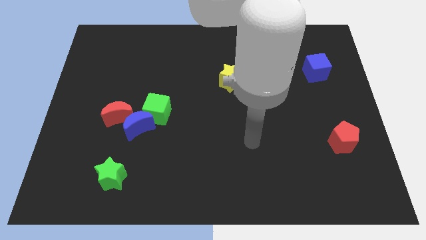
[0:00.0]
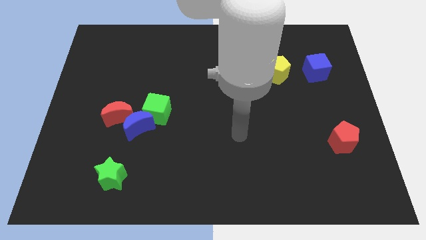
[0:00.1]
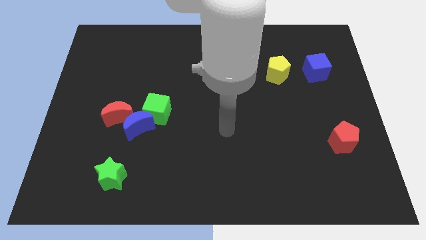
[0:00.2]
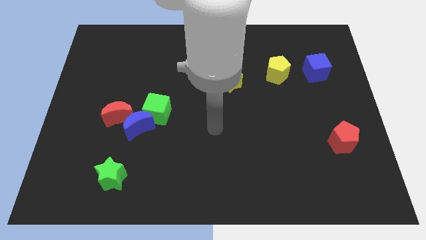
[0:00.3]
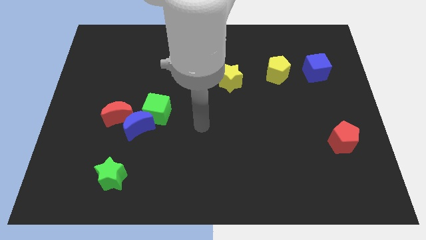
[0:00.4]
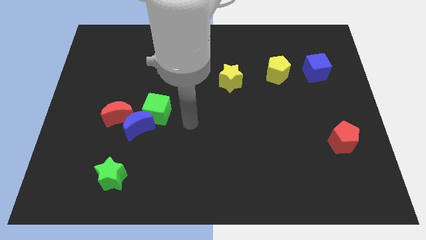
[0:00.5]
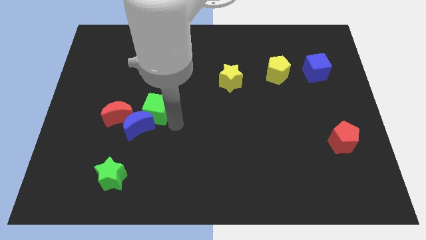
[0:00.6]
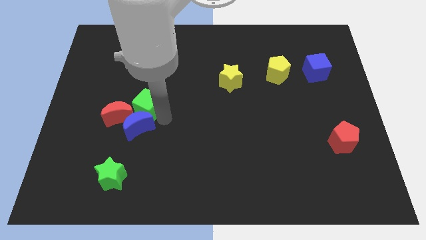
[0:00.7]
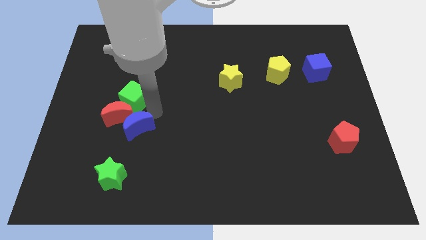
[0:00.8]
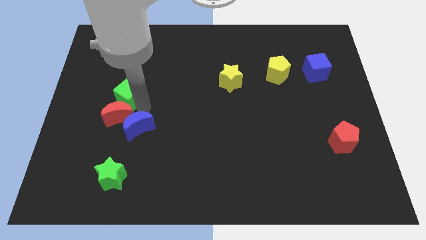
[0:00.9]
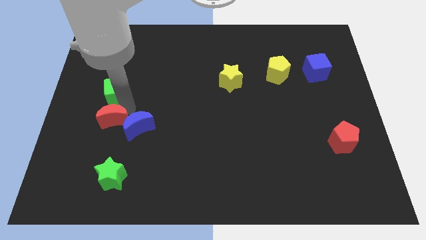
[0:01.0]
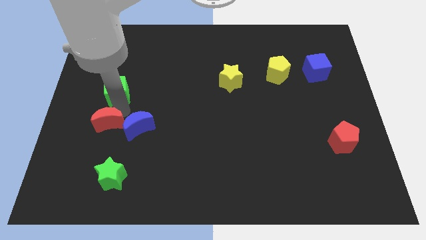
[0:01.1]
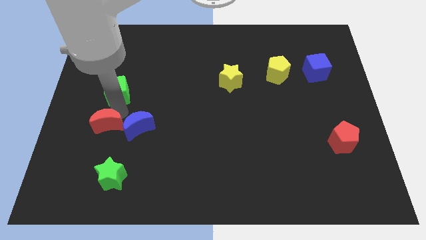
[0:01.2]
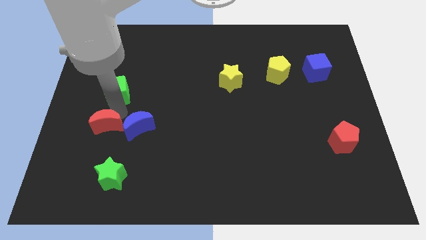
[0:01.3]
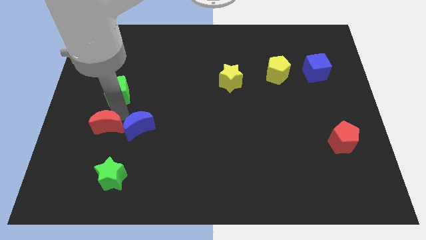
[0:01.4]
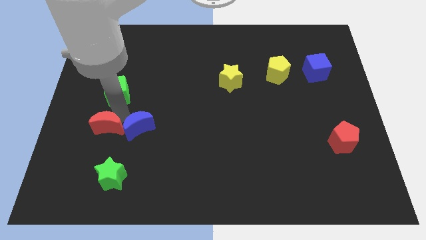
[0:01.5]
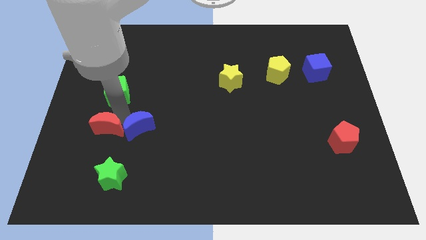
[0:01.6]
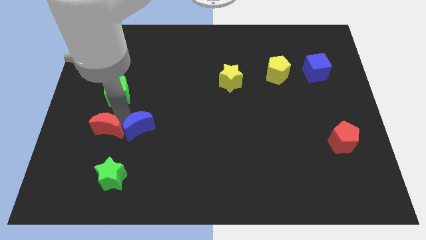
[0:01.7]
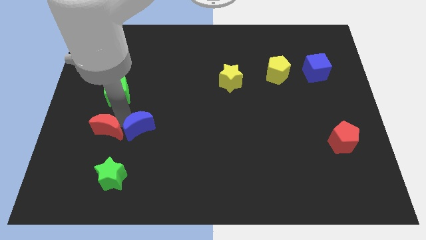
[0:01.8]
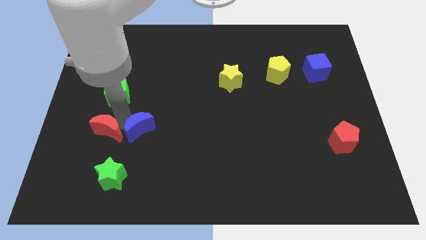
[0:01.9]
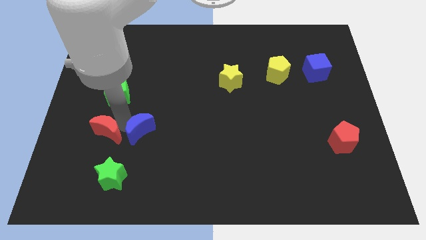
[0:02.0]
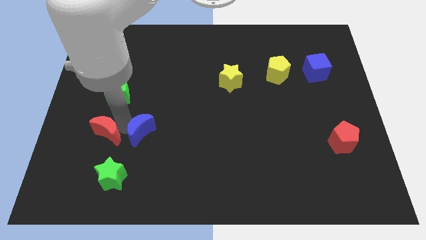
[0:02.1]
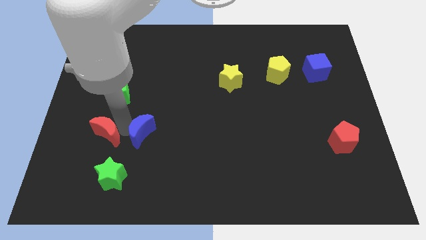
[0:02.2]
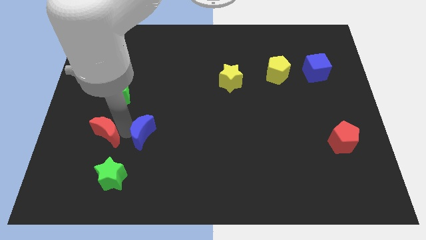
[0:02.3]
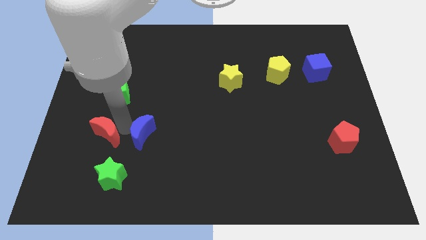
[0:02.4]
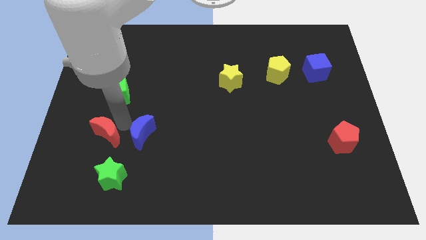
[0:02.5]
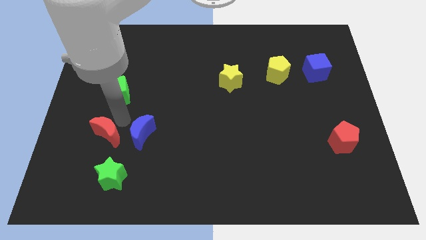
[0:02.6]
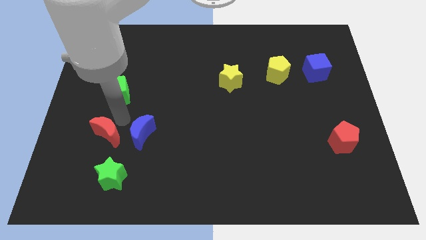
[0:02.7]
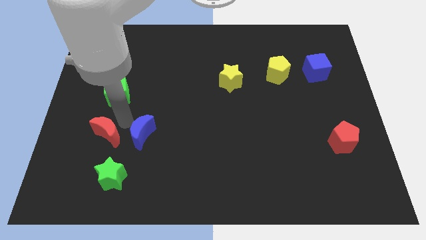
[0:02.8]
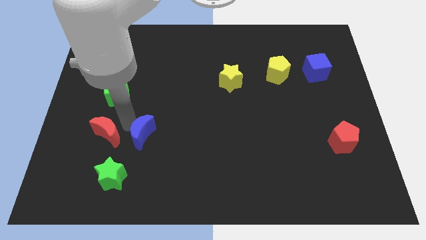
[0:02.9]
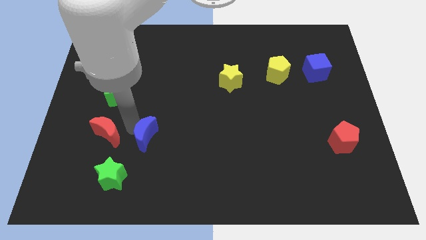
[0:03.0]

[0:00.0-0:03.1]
separate the blue moon from the red moon and green cube

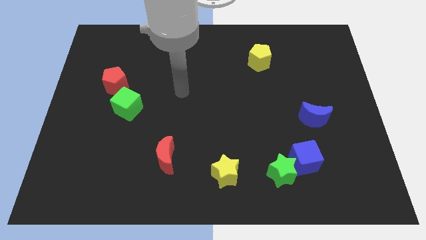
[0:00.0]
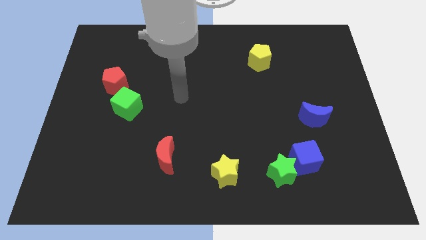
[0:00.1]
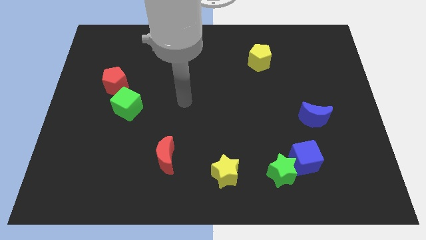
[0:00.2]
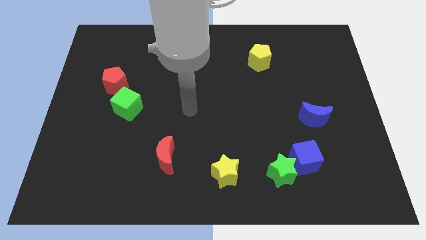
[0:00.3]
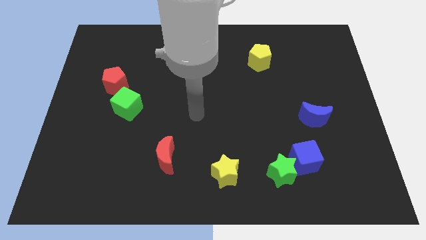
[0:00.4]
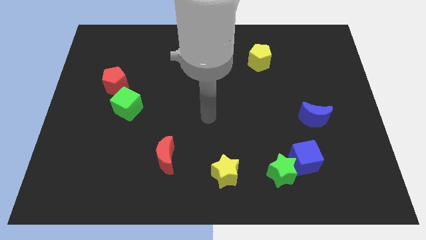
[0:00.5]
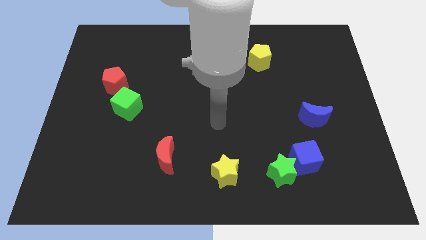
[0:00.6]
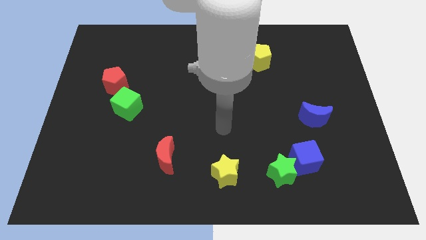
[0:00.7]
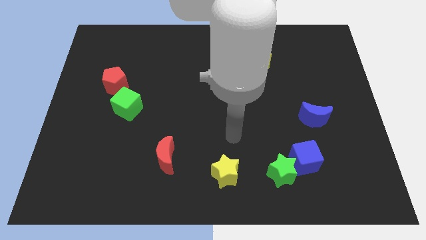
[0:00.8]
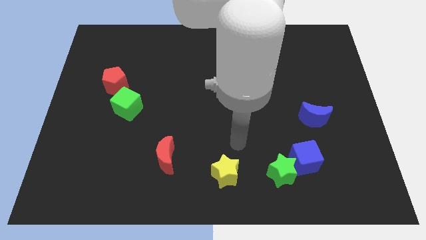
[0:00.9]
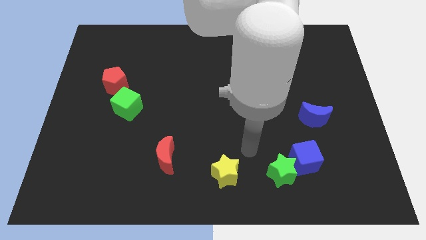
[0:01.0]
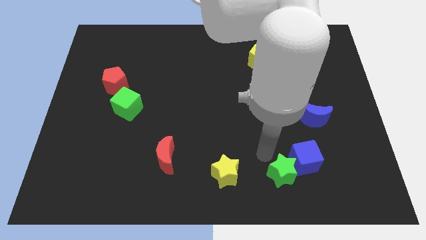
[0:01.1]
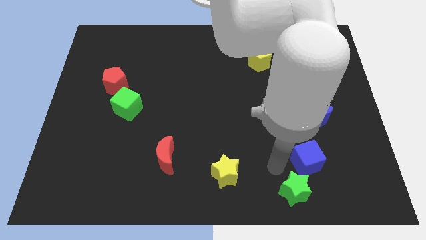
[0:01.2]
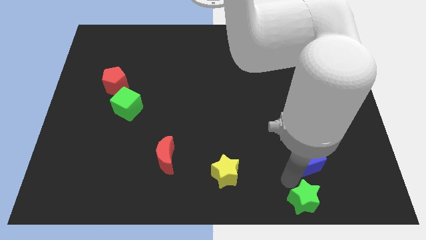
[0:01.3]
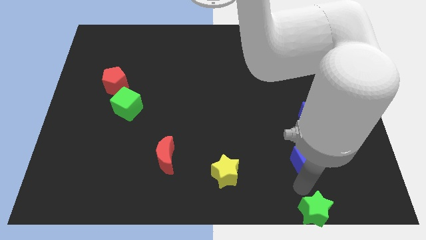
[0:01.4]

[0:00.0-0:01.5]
separate the blue cube from the green star

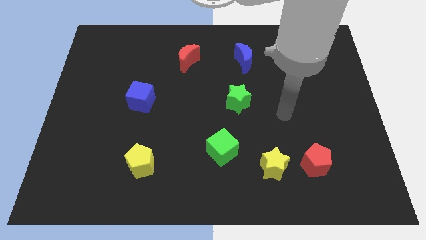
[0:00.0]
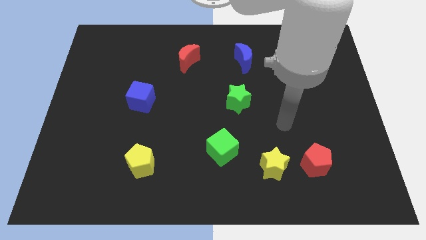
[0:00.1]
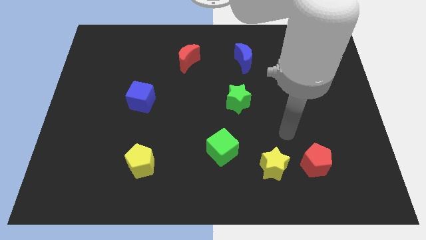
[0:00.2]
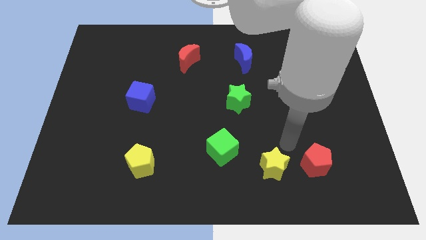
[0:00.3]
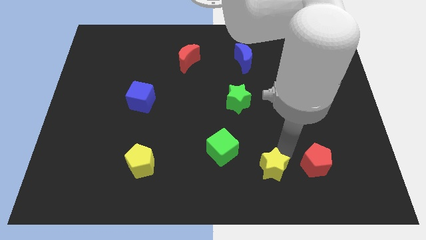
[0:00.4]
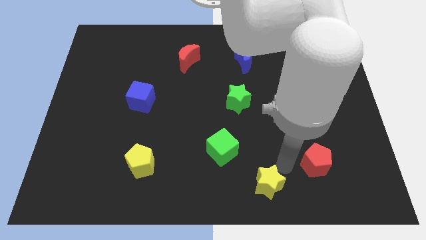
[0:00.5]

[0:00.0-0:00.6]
move the red pentagon away from the yellow star

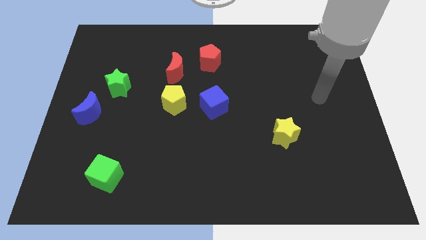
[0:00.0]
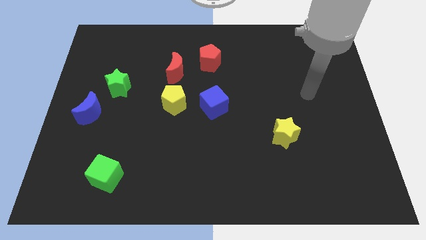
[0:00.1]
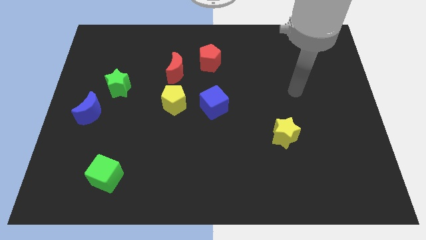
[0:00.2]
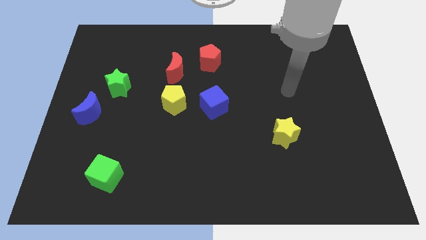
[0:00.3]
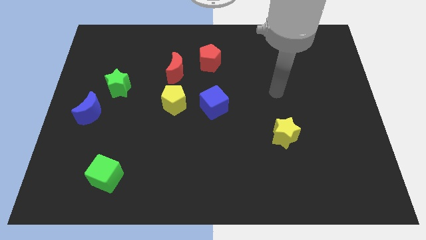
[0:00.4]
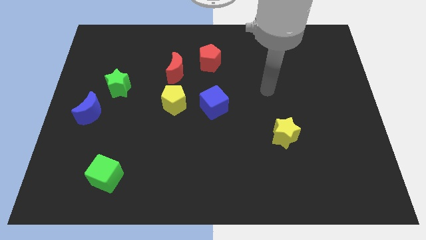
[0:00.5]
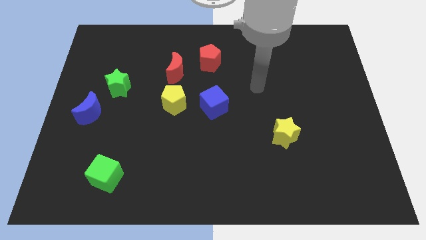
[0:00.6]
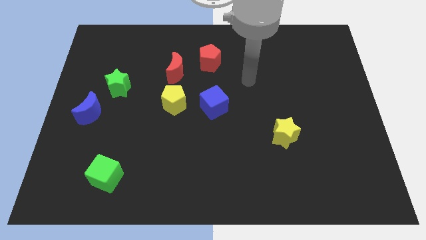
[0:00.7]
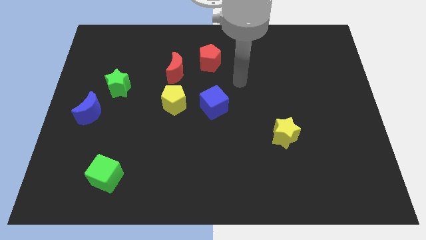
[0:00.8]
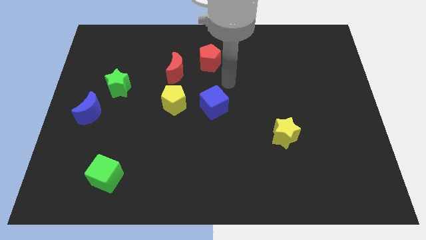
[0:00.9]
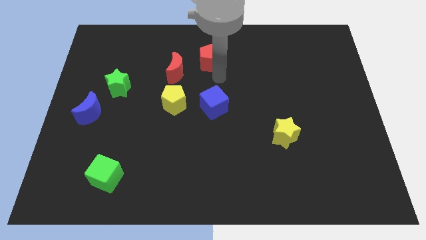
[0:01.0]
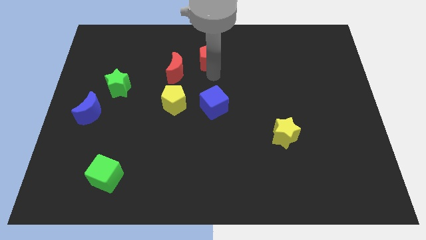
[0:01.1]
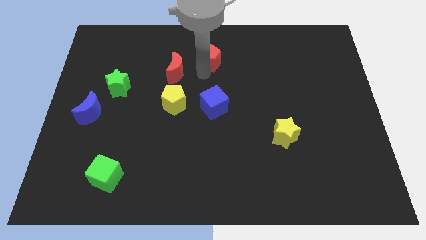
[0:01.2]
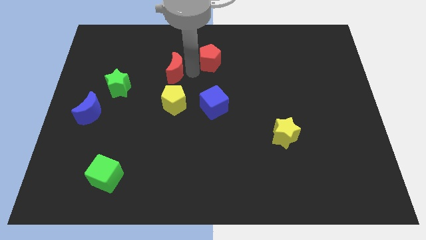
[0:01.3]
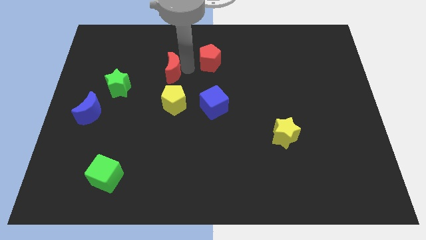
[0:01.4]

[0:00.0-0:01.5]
pull the red pentagon apart from the red moon

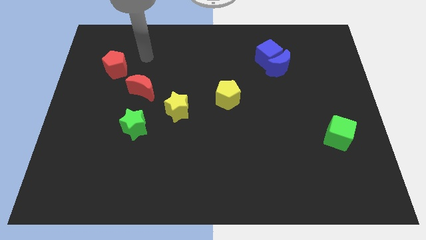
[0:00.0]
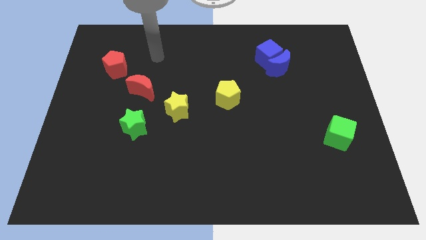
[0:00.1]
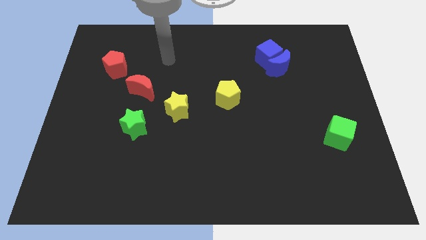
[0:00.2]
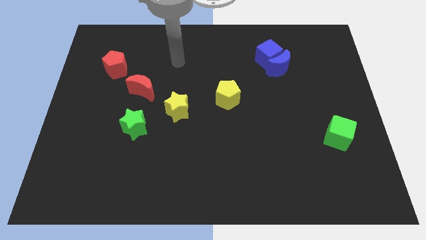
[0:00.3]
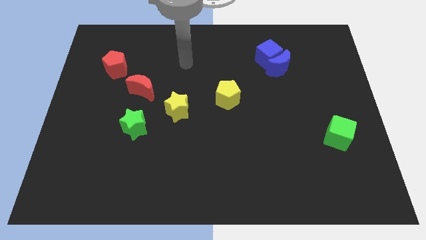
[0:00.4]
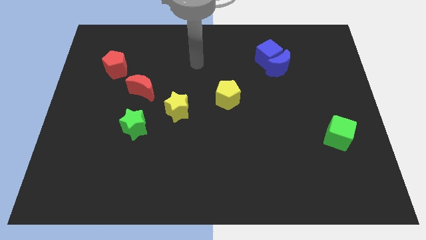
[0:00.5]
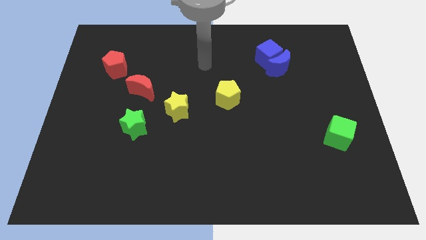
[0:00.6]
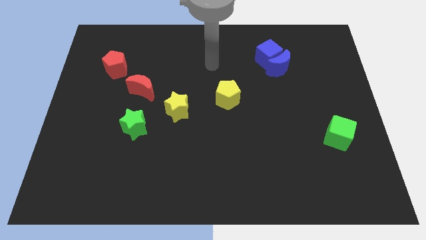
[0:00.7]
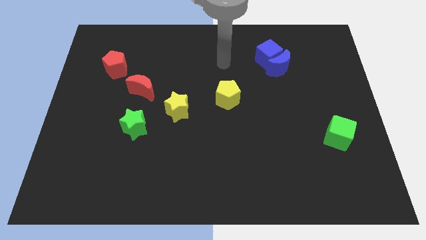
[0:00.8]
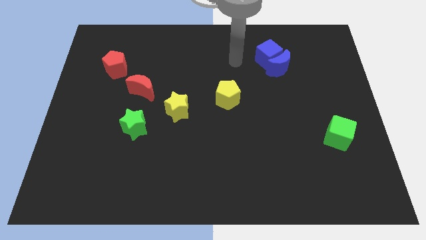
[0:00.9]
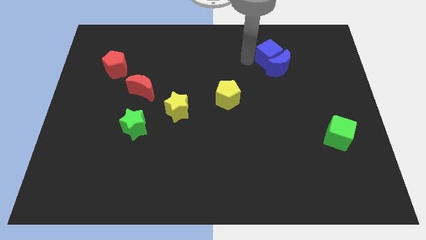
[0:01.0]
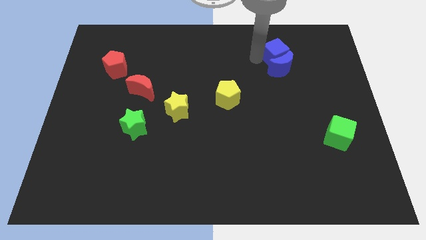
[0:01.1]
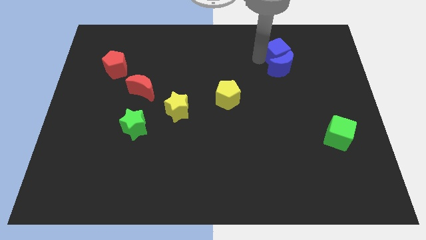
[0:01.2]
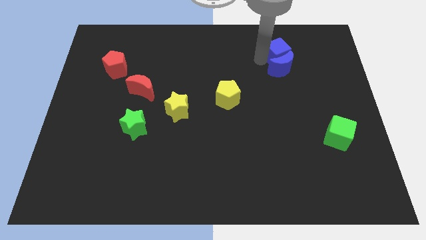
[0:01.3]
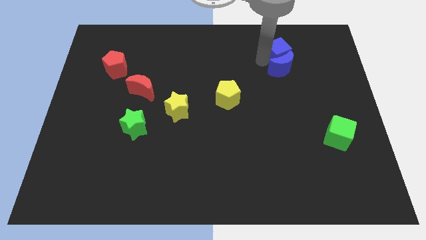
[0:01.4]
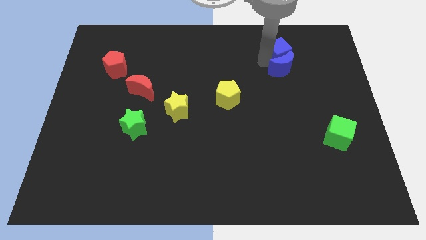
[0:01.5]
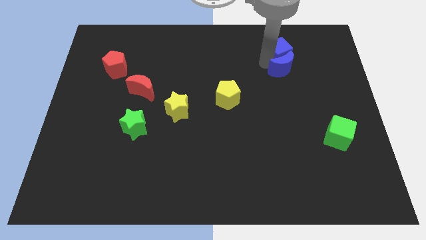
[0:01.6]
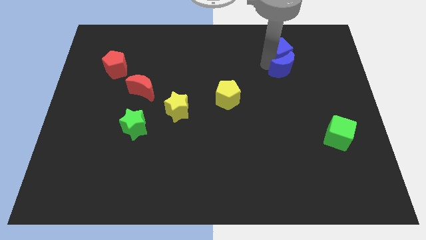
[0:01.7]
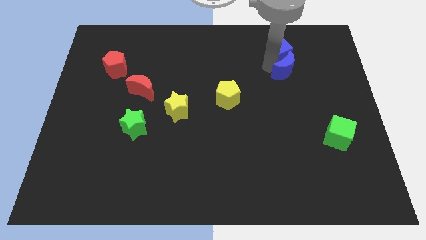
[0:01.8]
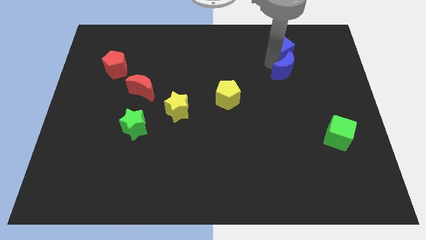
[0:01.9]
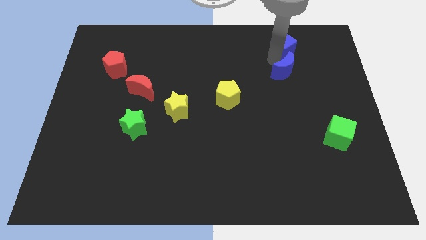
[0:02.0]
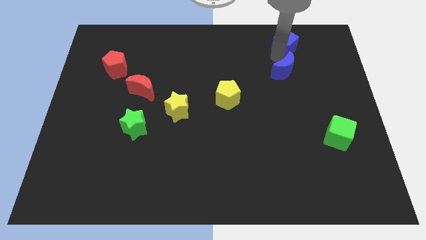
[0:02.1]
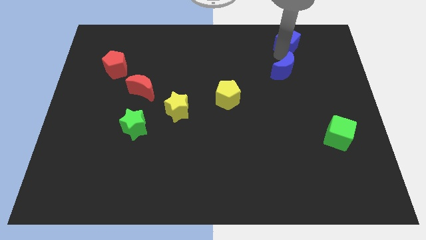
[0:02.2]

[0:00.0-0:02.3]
move the blue moon away from the blue cube

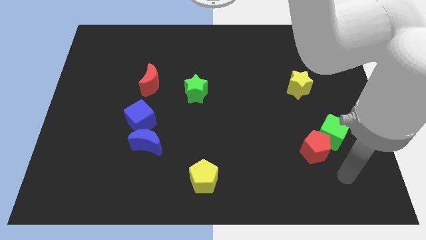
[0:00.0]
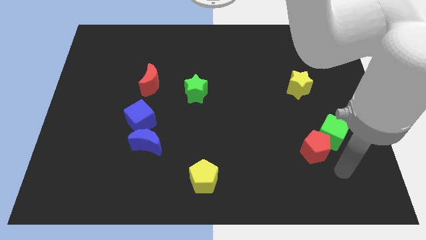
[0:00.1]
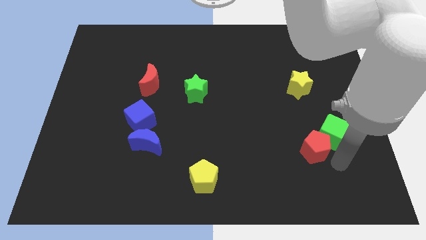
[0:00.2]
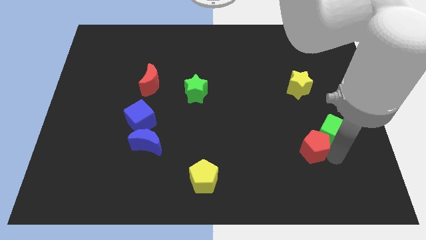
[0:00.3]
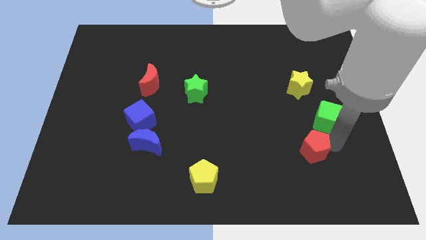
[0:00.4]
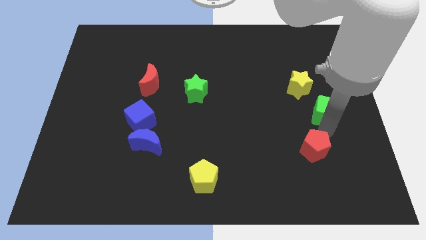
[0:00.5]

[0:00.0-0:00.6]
separate the red pentagon from the green cube
